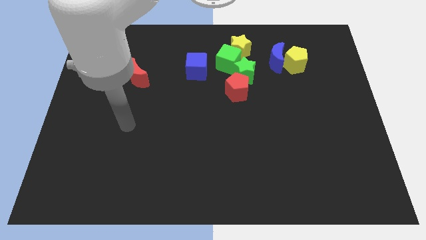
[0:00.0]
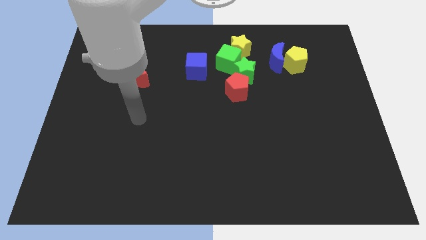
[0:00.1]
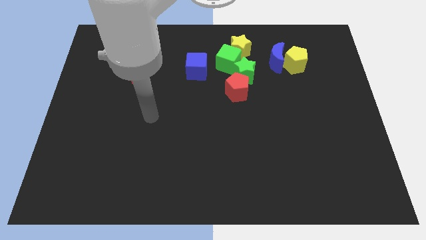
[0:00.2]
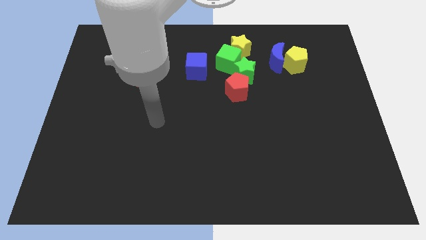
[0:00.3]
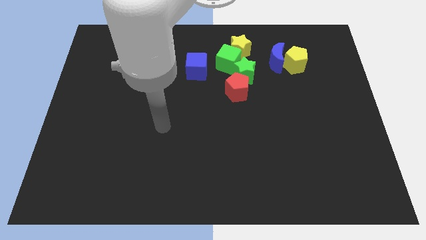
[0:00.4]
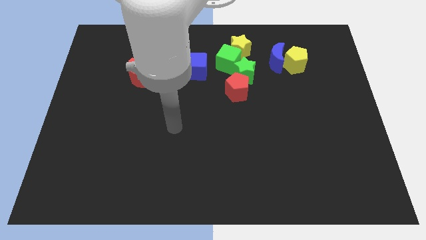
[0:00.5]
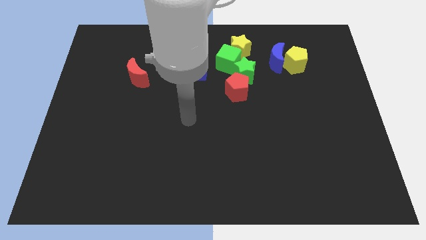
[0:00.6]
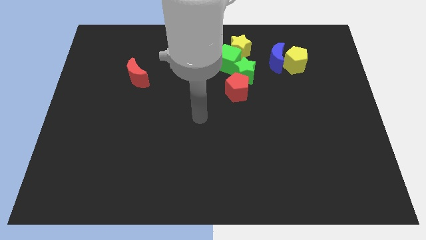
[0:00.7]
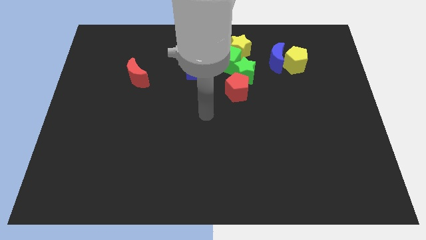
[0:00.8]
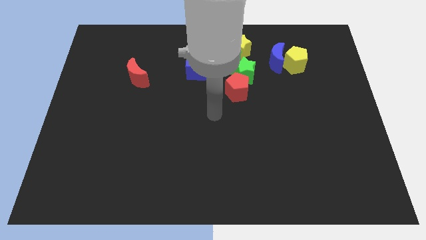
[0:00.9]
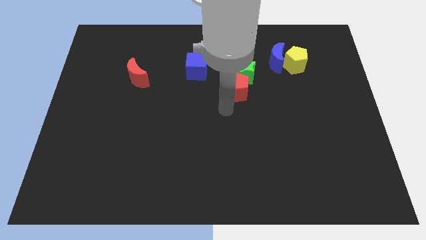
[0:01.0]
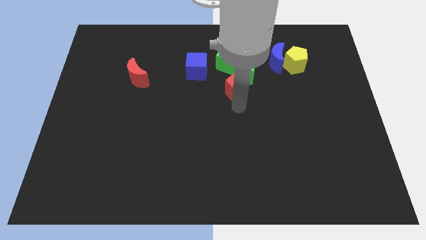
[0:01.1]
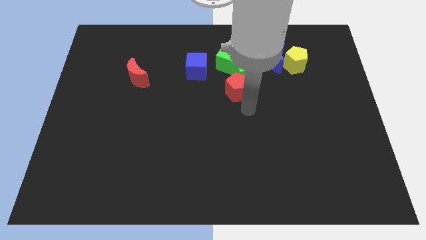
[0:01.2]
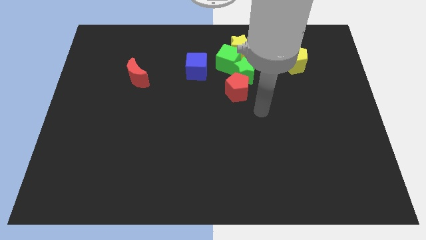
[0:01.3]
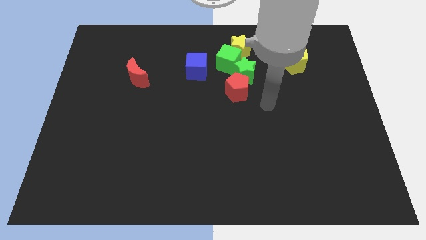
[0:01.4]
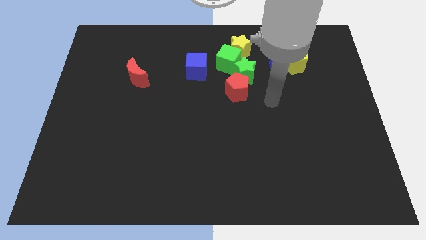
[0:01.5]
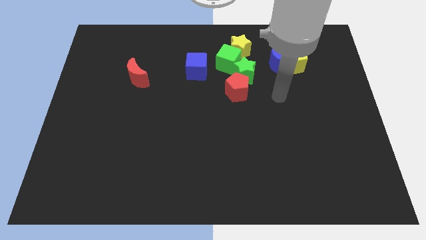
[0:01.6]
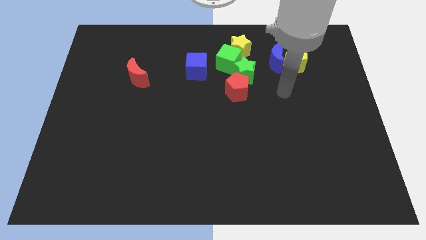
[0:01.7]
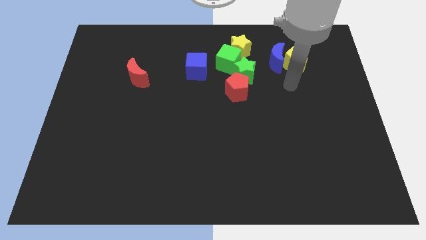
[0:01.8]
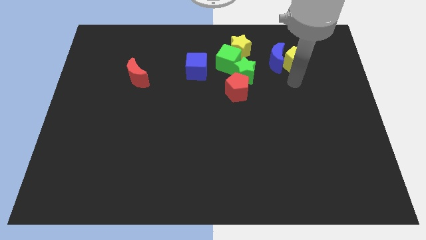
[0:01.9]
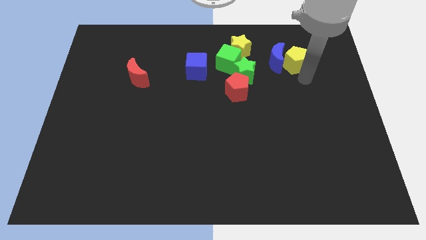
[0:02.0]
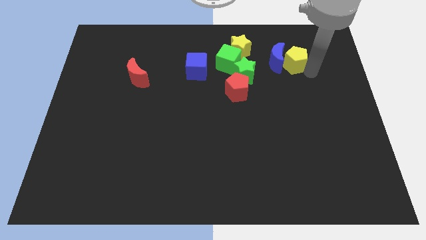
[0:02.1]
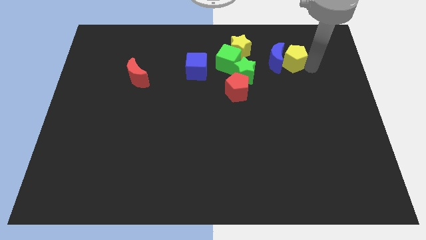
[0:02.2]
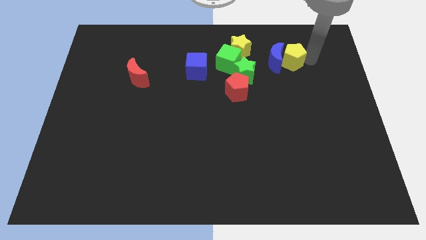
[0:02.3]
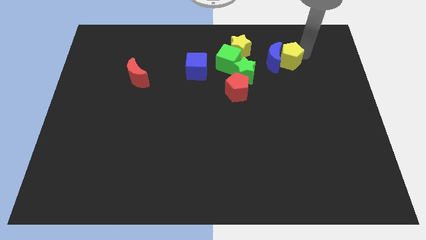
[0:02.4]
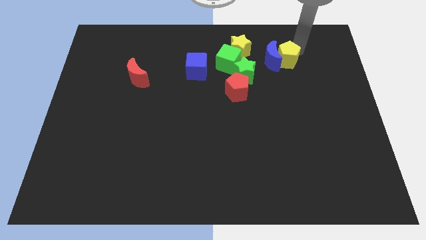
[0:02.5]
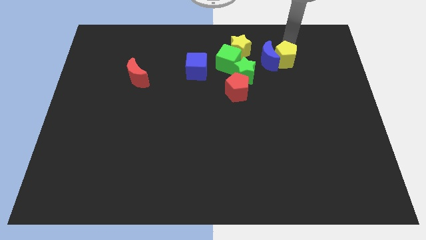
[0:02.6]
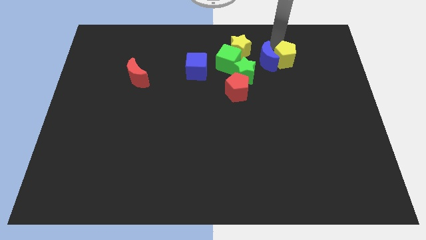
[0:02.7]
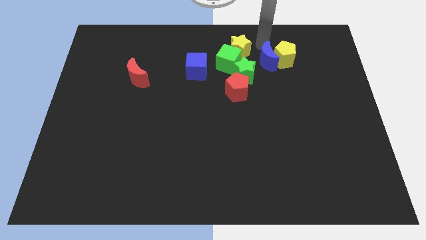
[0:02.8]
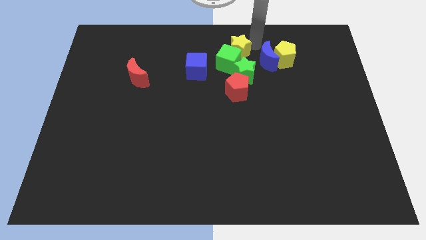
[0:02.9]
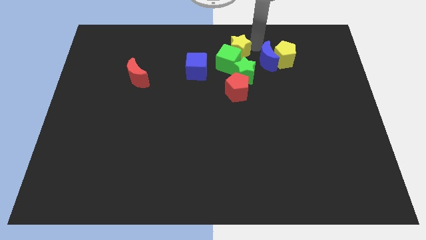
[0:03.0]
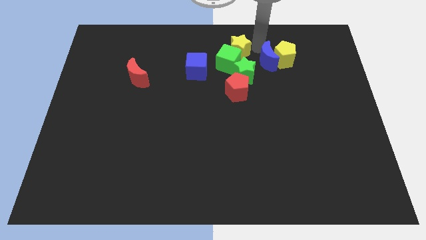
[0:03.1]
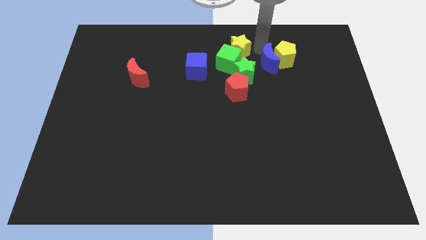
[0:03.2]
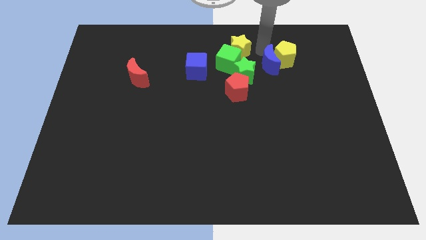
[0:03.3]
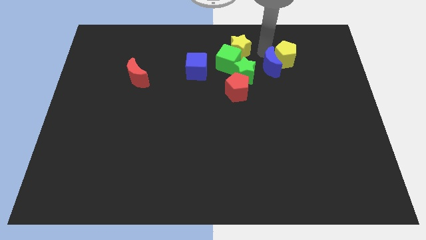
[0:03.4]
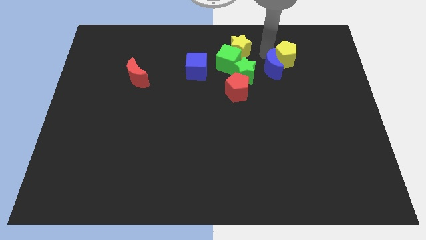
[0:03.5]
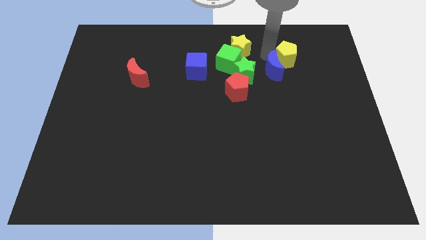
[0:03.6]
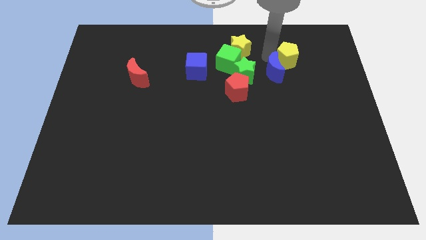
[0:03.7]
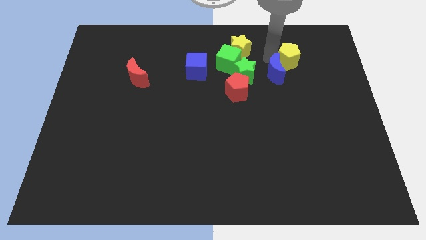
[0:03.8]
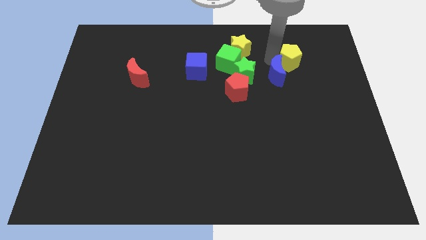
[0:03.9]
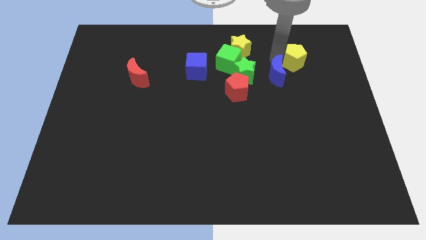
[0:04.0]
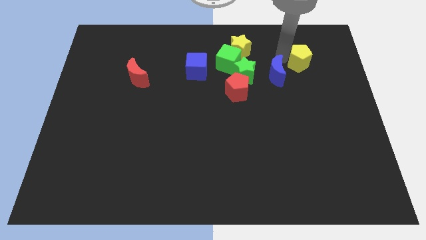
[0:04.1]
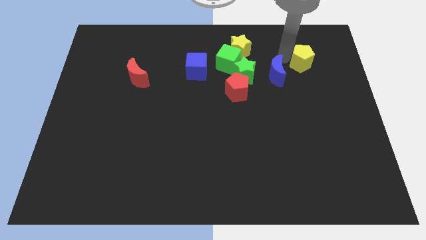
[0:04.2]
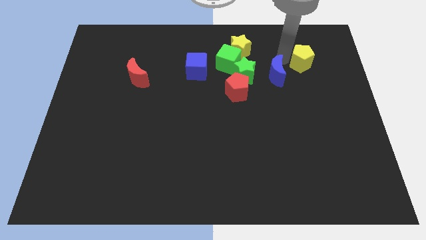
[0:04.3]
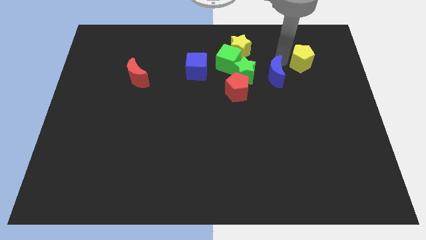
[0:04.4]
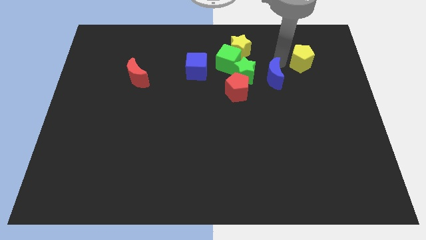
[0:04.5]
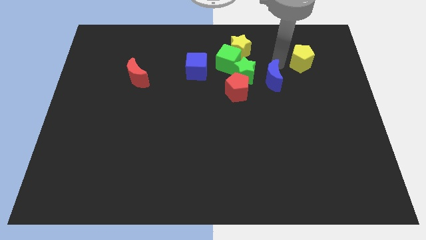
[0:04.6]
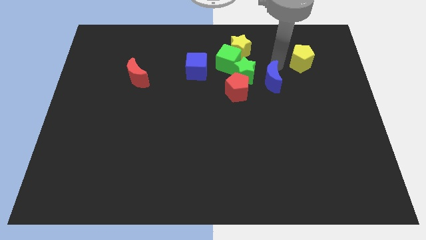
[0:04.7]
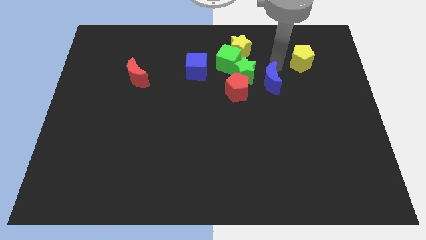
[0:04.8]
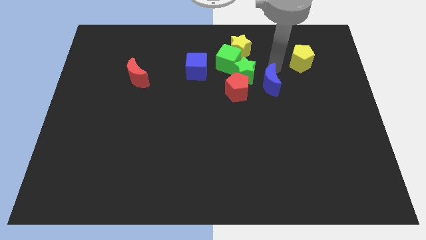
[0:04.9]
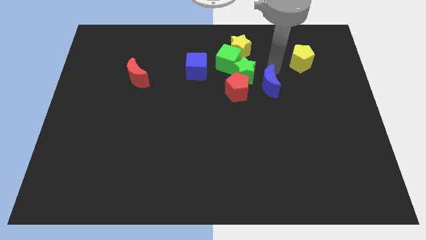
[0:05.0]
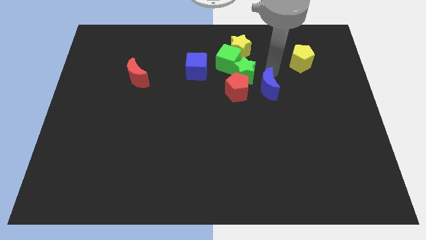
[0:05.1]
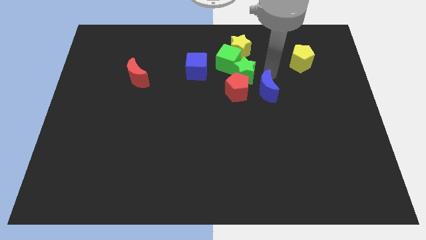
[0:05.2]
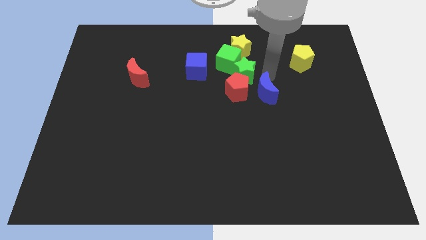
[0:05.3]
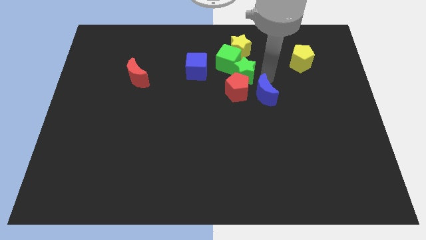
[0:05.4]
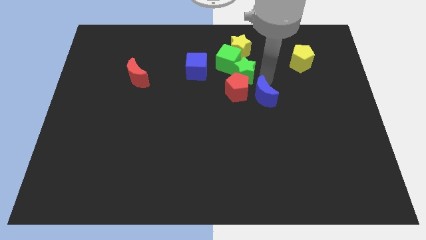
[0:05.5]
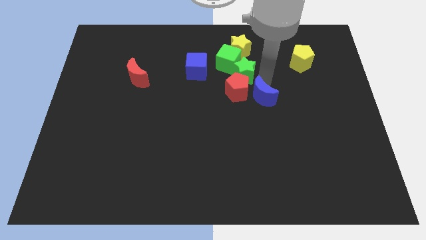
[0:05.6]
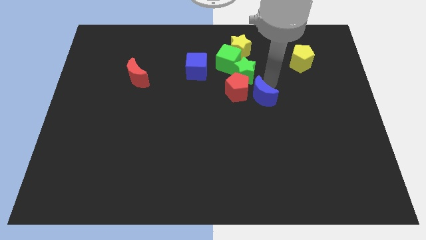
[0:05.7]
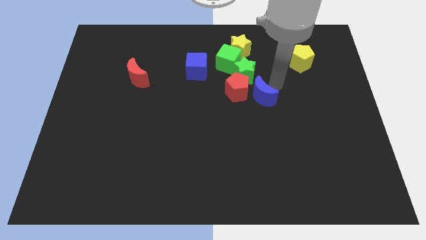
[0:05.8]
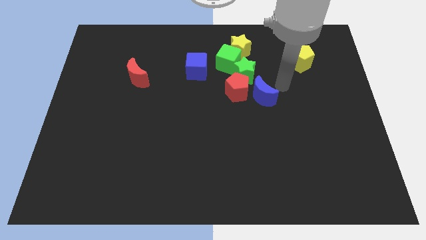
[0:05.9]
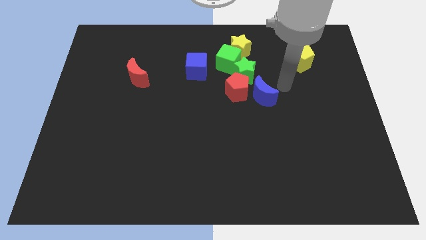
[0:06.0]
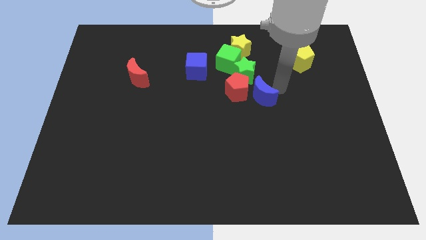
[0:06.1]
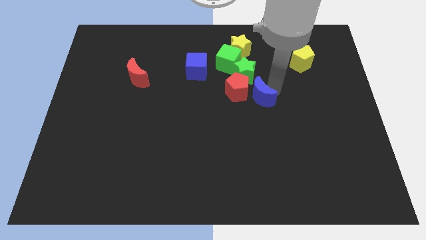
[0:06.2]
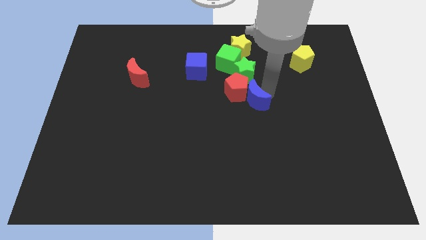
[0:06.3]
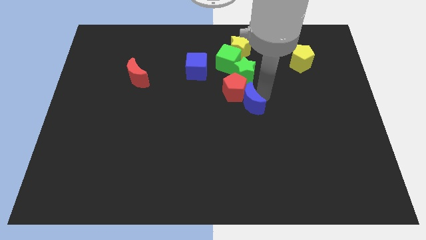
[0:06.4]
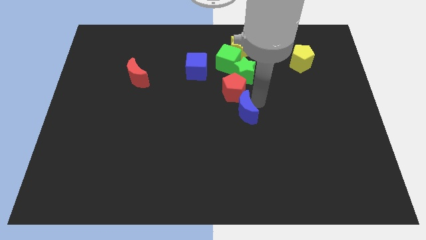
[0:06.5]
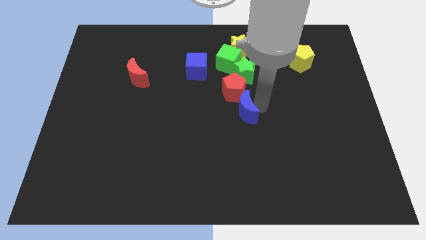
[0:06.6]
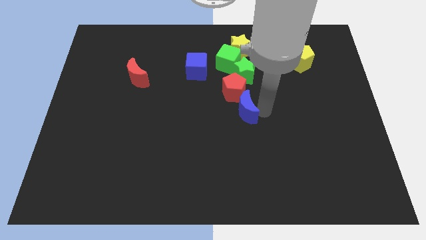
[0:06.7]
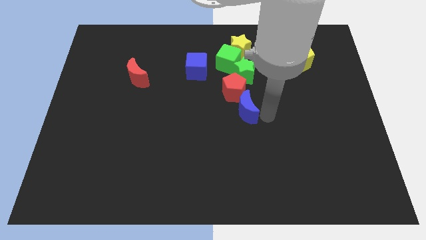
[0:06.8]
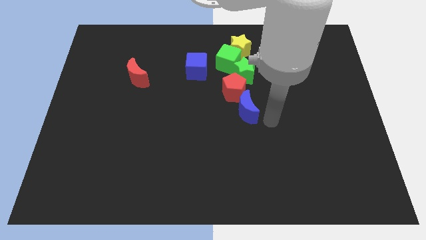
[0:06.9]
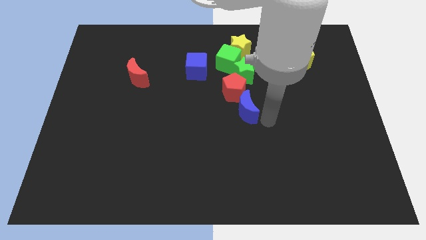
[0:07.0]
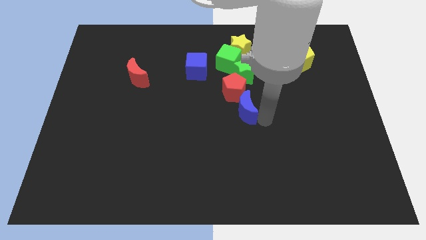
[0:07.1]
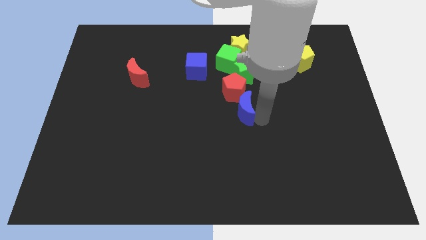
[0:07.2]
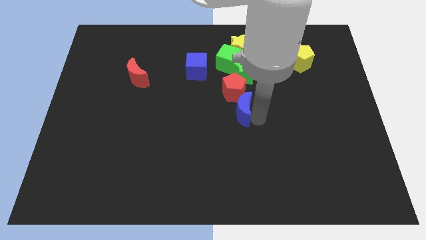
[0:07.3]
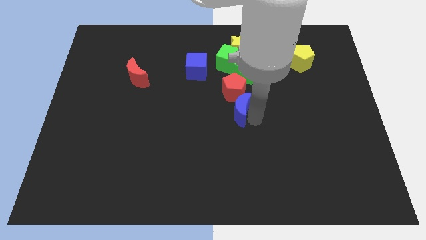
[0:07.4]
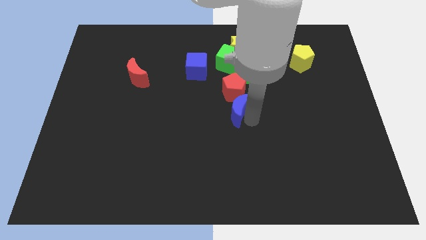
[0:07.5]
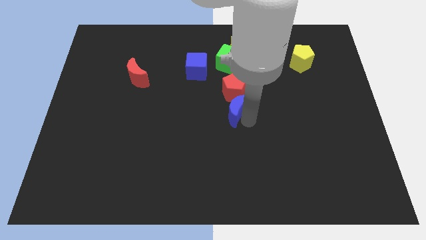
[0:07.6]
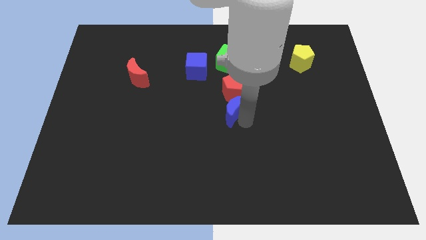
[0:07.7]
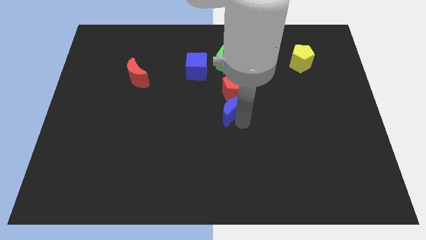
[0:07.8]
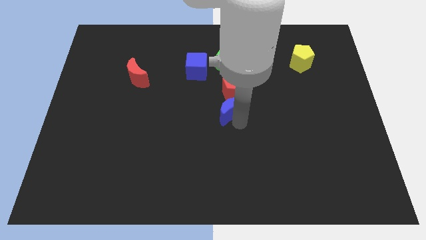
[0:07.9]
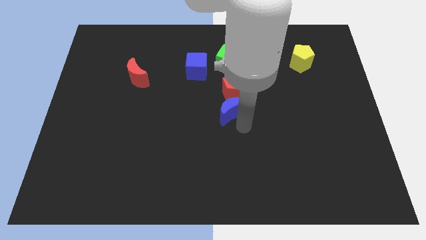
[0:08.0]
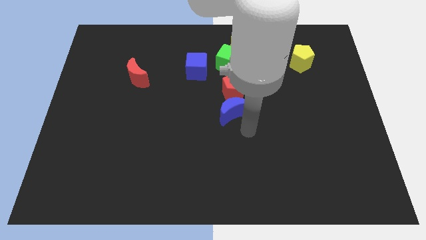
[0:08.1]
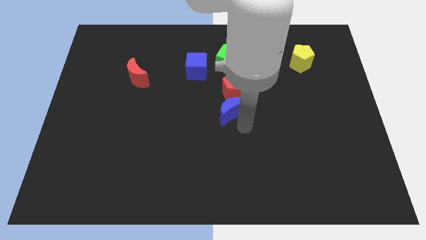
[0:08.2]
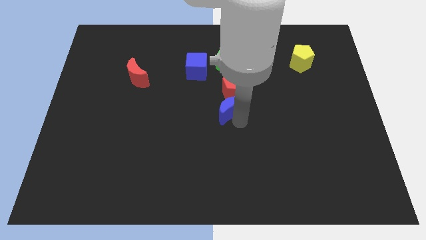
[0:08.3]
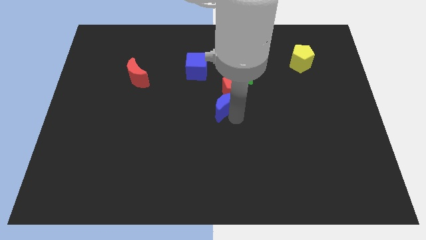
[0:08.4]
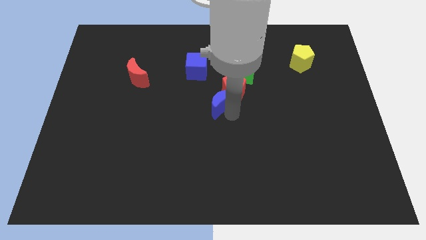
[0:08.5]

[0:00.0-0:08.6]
slide the blue moon just left of the red pentagon

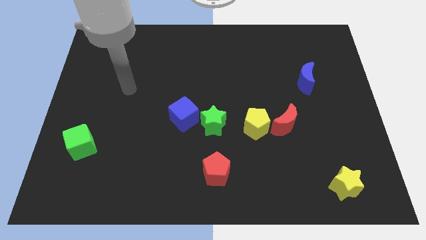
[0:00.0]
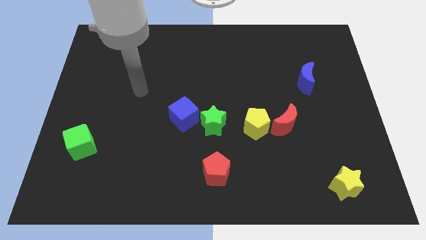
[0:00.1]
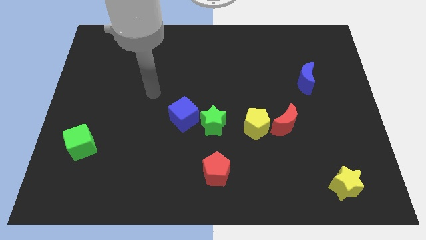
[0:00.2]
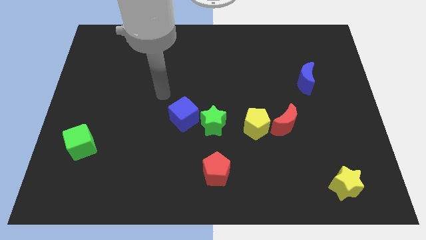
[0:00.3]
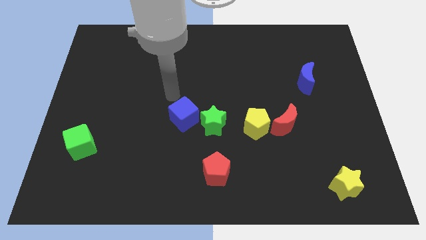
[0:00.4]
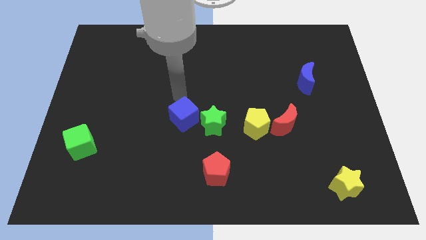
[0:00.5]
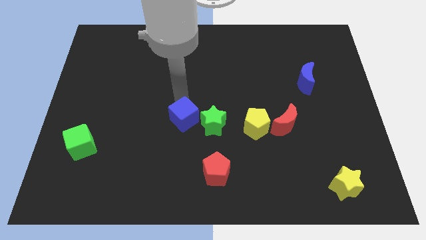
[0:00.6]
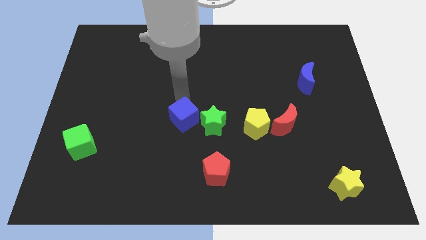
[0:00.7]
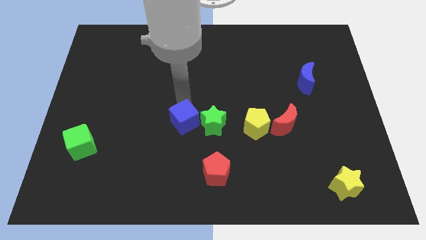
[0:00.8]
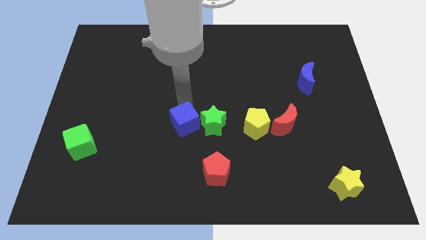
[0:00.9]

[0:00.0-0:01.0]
put the blue cube to the bottom left of the green star
